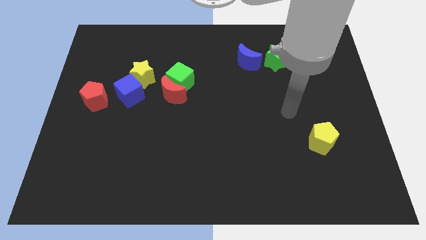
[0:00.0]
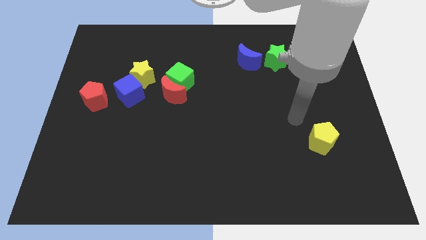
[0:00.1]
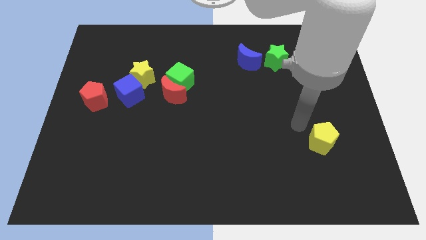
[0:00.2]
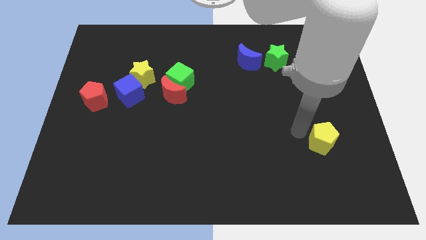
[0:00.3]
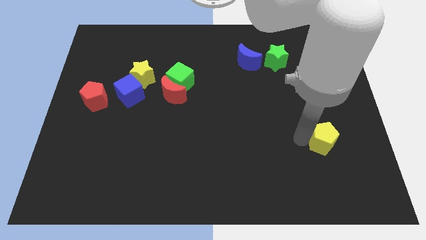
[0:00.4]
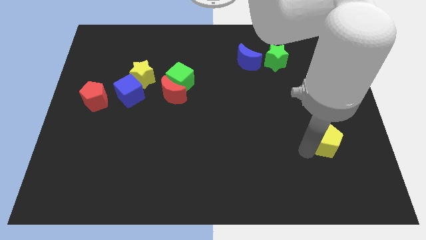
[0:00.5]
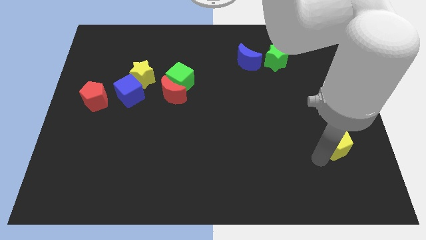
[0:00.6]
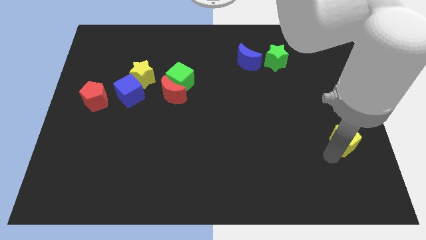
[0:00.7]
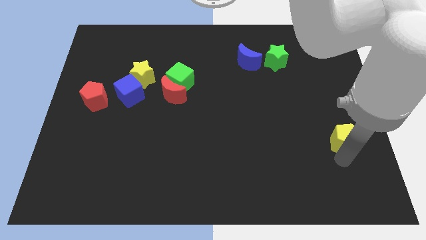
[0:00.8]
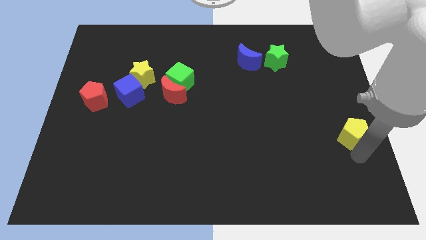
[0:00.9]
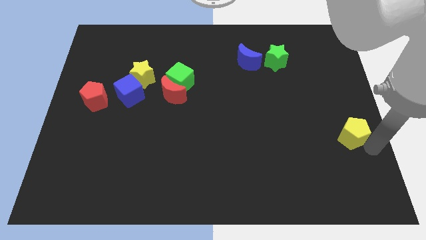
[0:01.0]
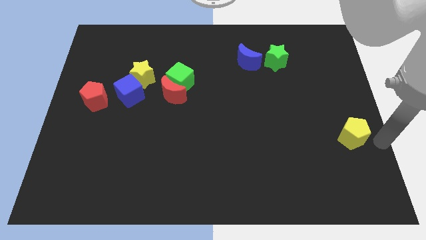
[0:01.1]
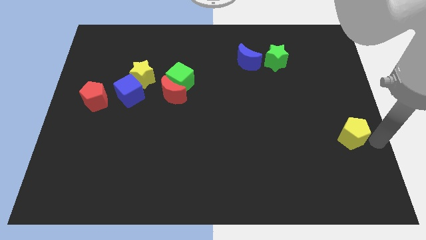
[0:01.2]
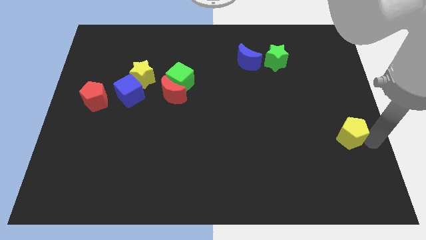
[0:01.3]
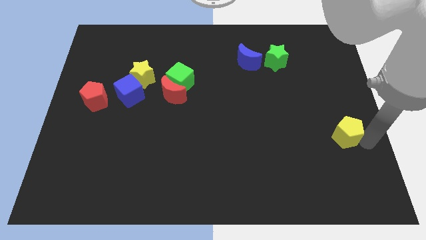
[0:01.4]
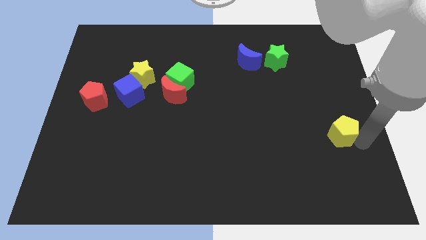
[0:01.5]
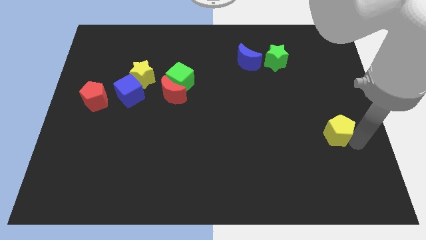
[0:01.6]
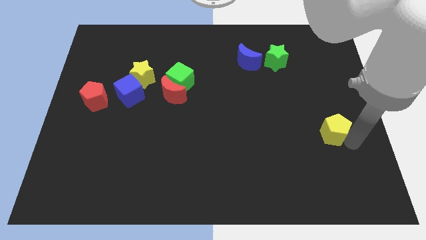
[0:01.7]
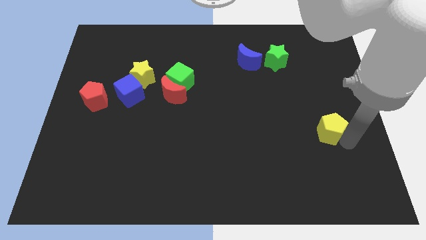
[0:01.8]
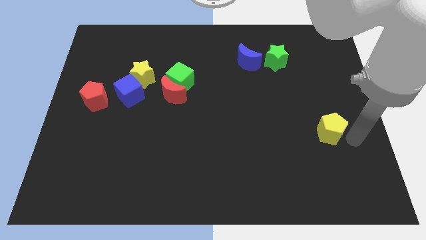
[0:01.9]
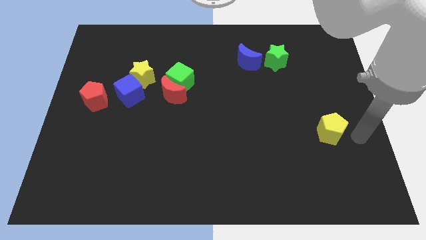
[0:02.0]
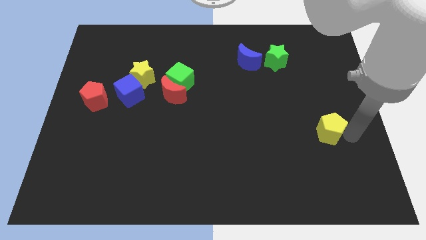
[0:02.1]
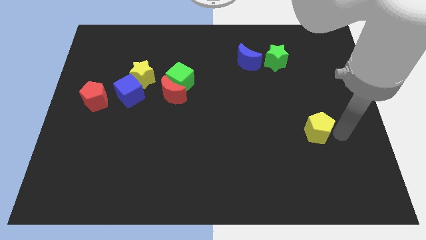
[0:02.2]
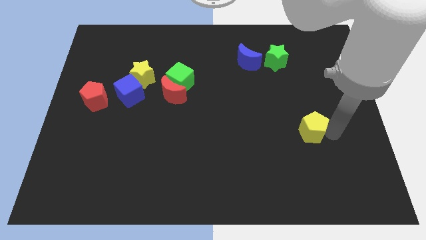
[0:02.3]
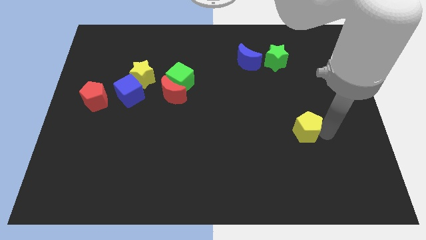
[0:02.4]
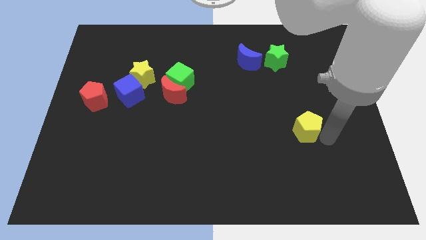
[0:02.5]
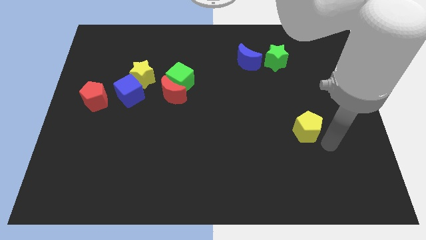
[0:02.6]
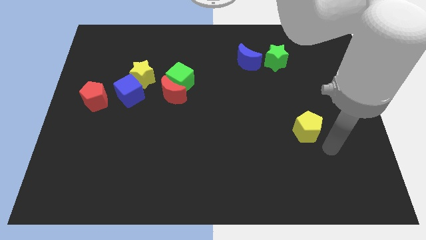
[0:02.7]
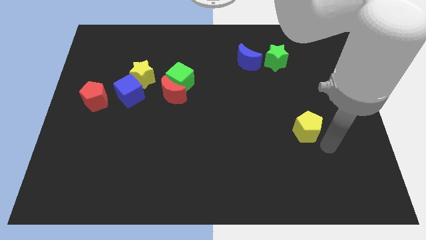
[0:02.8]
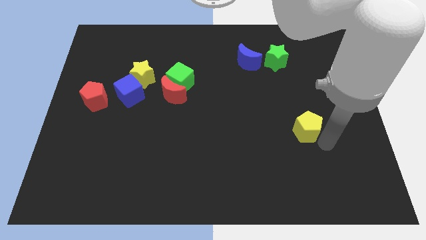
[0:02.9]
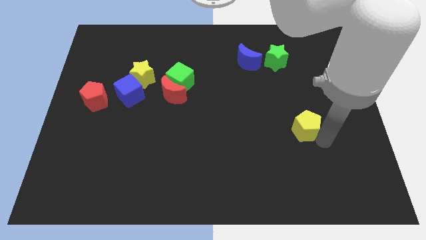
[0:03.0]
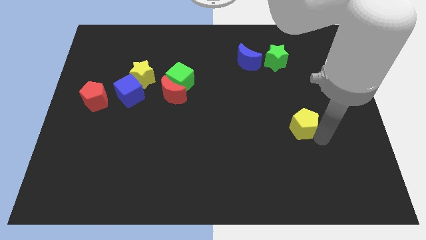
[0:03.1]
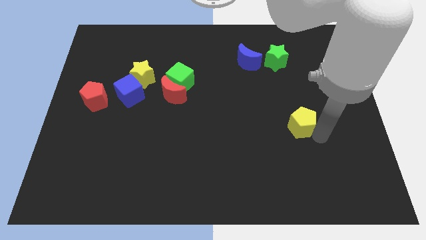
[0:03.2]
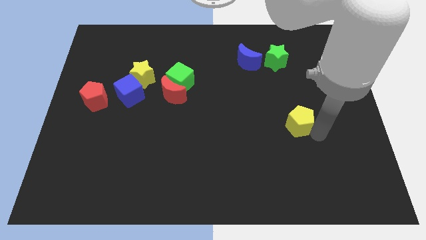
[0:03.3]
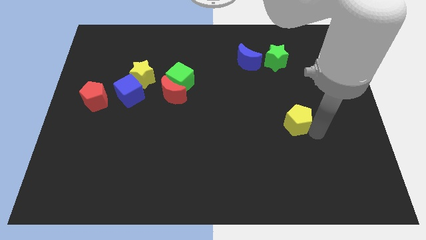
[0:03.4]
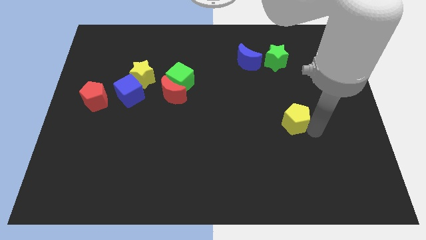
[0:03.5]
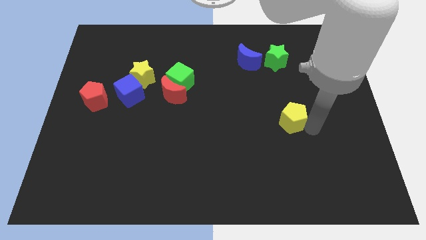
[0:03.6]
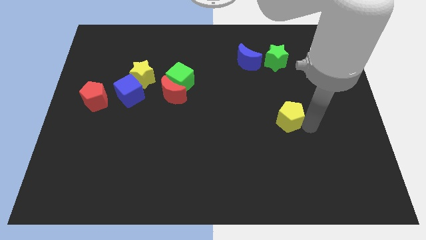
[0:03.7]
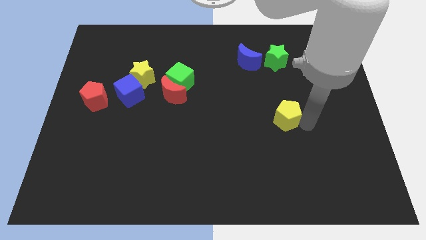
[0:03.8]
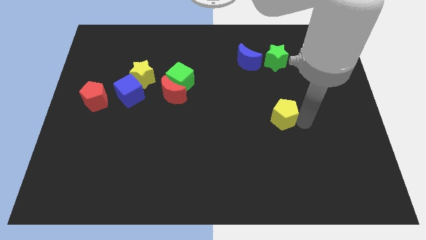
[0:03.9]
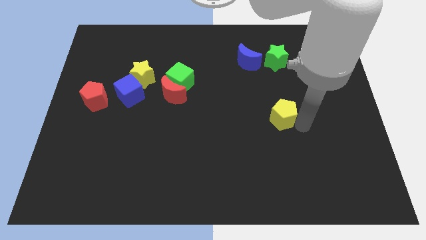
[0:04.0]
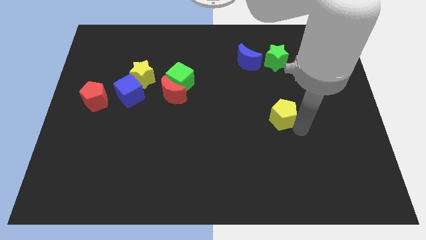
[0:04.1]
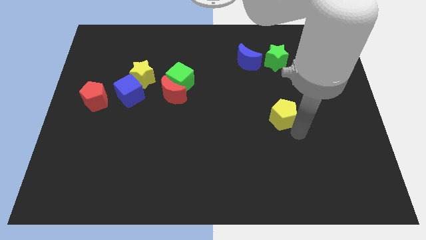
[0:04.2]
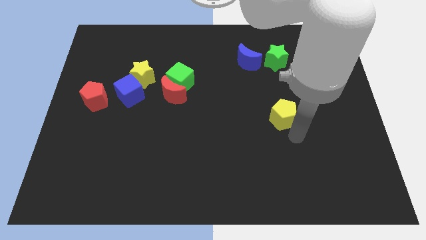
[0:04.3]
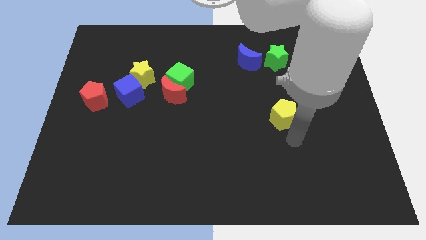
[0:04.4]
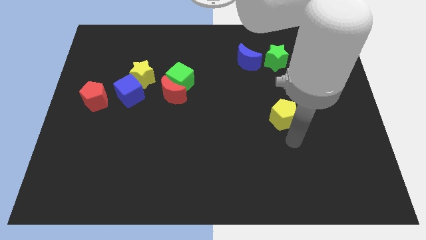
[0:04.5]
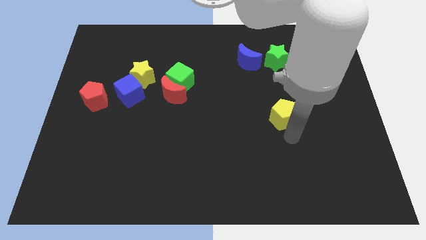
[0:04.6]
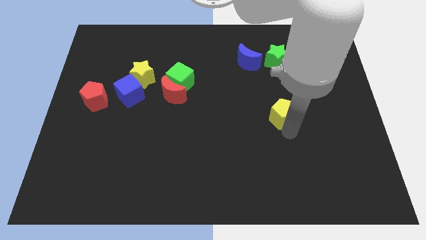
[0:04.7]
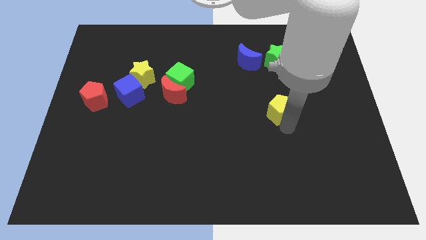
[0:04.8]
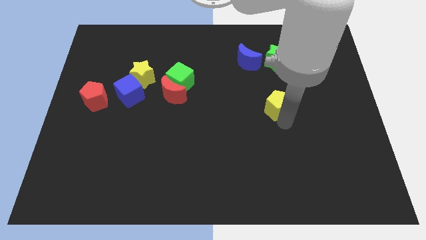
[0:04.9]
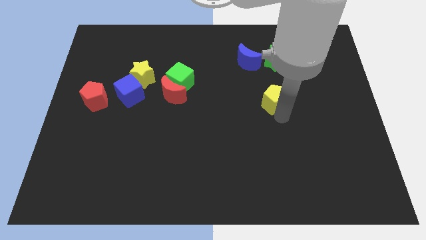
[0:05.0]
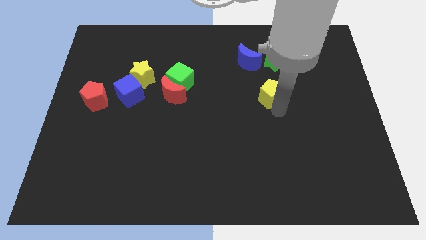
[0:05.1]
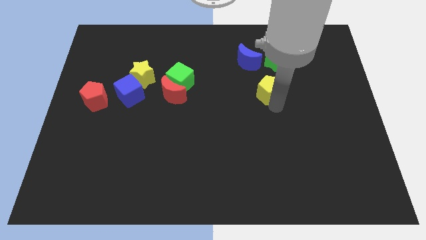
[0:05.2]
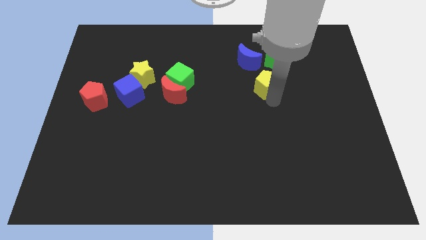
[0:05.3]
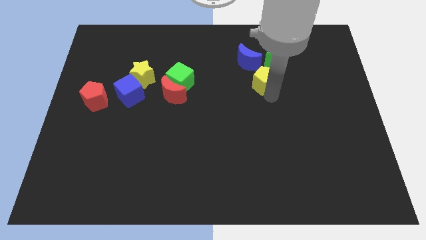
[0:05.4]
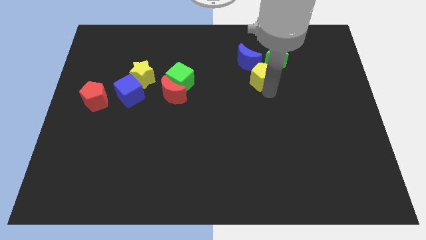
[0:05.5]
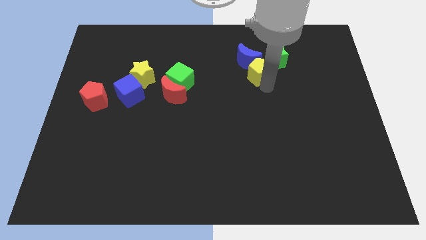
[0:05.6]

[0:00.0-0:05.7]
move the yellow pentagon towards the blue moon

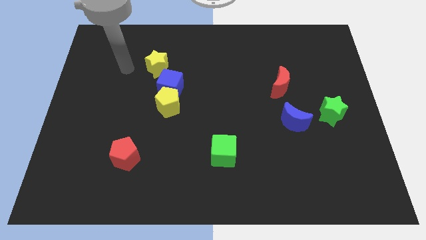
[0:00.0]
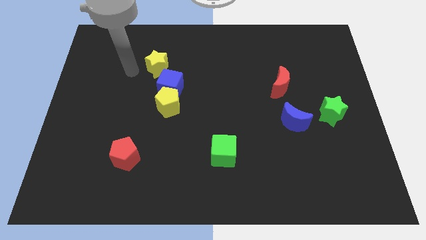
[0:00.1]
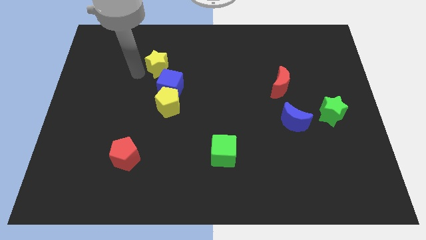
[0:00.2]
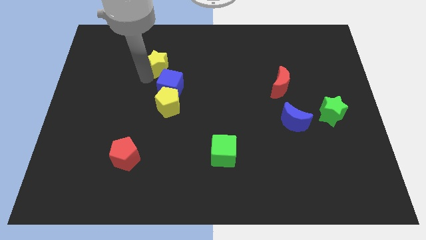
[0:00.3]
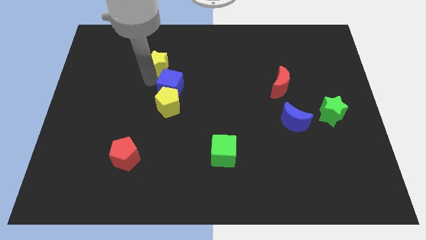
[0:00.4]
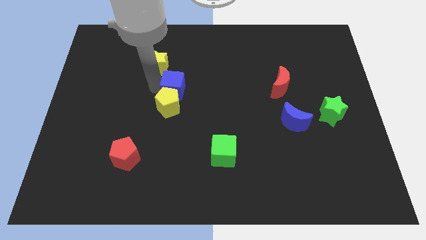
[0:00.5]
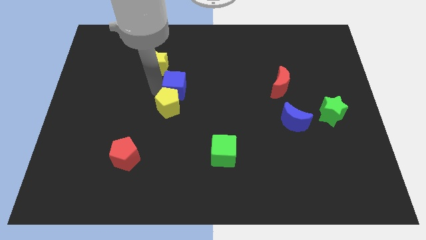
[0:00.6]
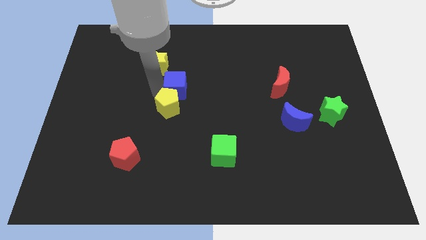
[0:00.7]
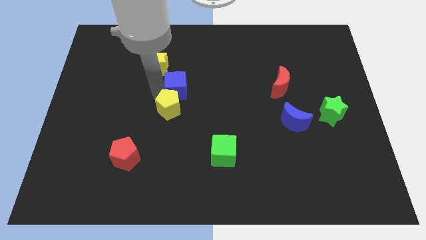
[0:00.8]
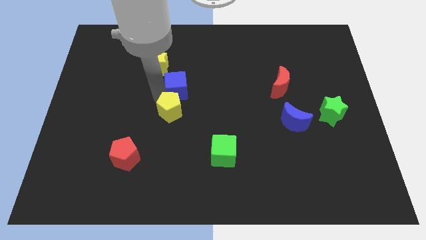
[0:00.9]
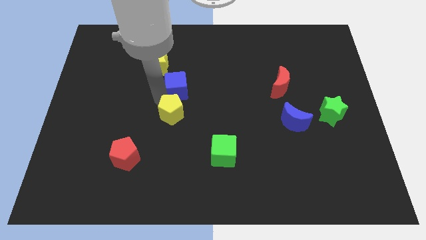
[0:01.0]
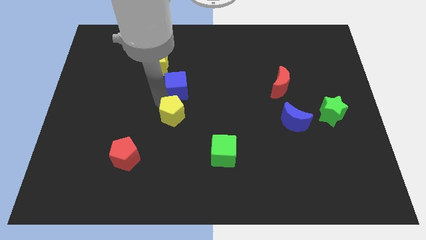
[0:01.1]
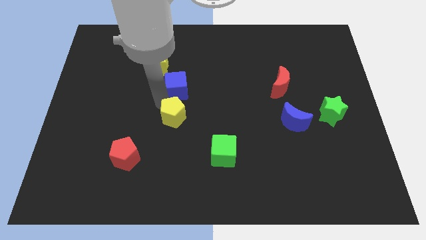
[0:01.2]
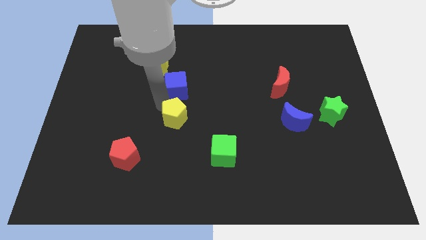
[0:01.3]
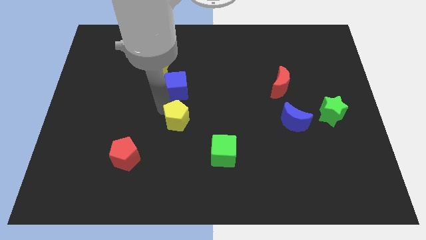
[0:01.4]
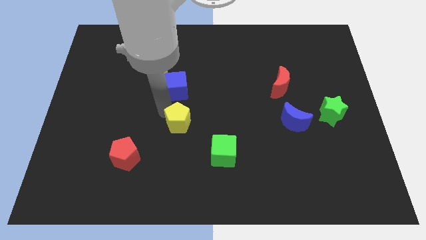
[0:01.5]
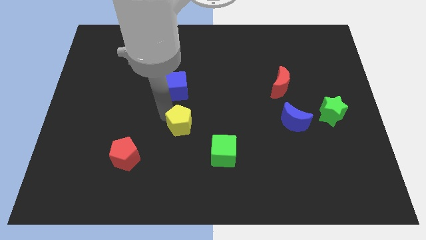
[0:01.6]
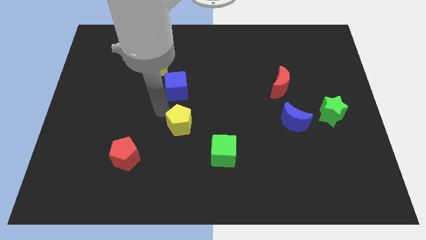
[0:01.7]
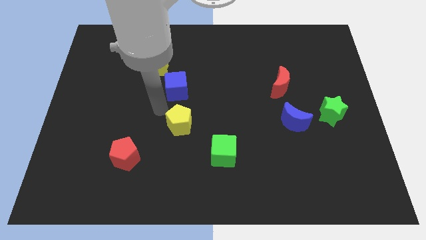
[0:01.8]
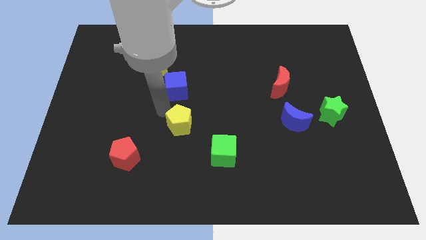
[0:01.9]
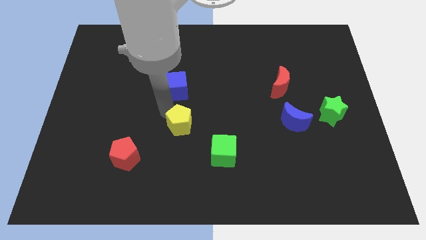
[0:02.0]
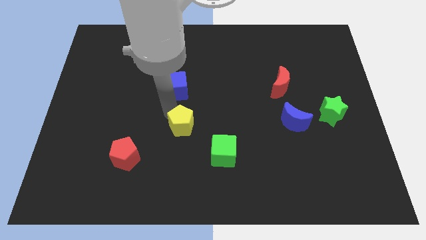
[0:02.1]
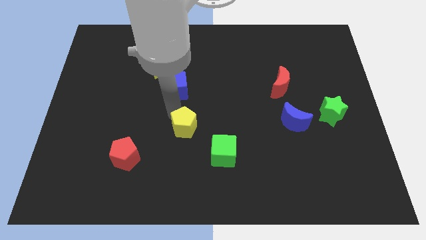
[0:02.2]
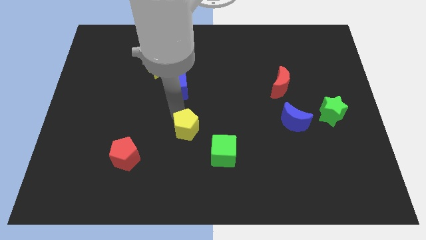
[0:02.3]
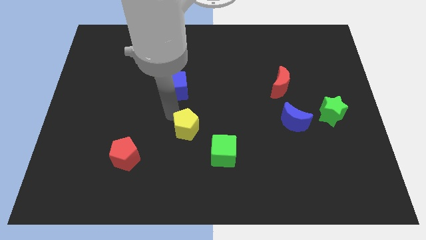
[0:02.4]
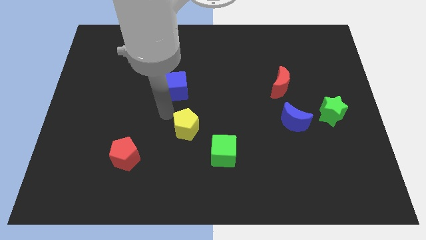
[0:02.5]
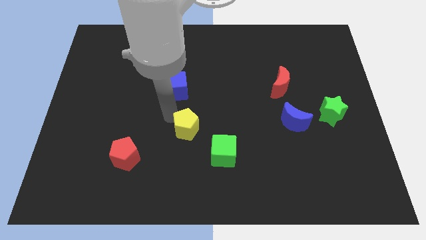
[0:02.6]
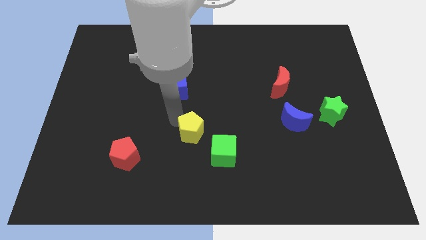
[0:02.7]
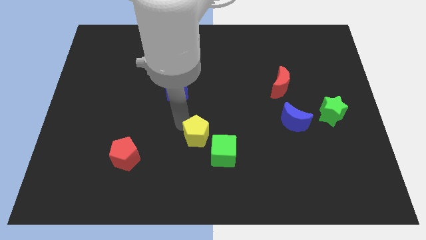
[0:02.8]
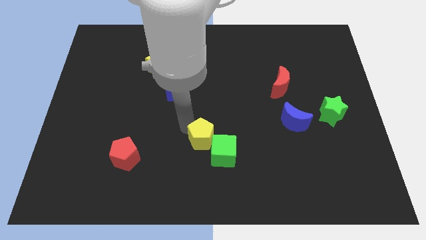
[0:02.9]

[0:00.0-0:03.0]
push the yellow pentagon close to the green cube
